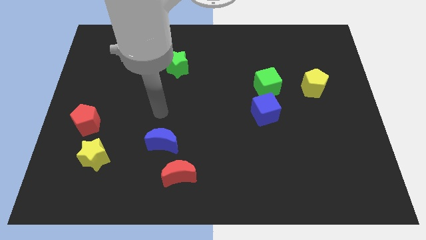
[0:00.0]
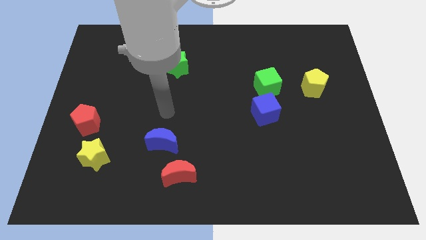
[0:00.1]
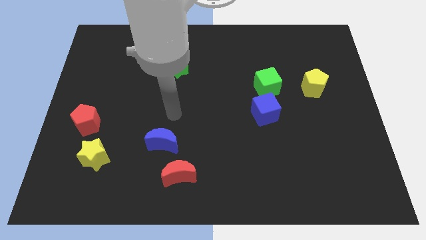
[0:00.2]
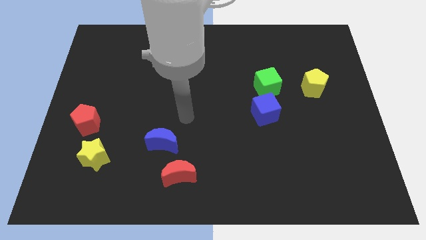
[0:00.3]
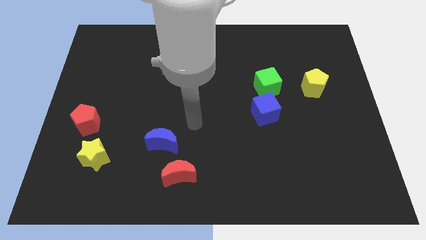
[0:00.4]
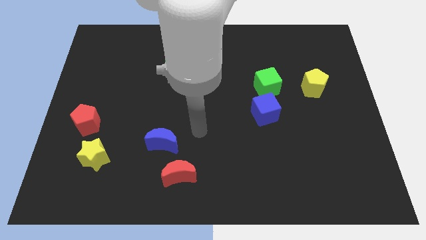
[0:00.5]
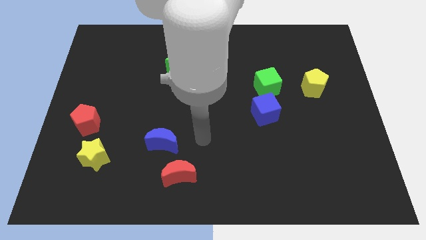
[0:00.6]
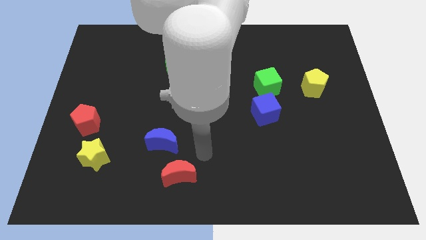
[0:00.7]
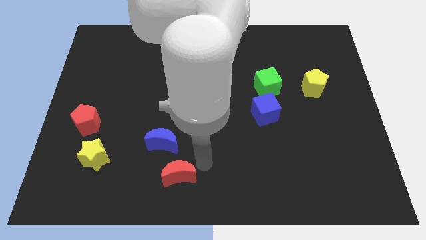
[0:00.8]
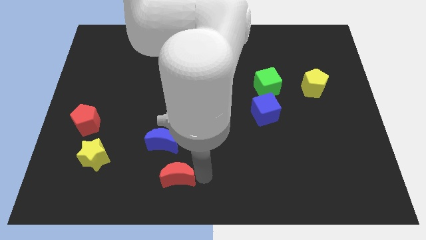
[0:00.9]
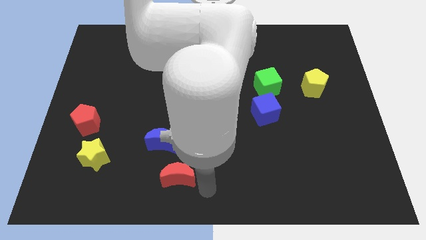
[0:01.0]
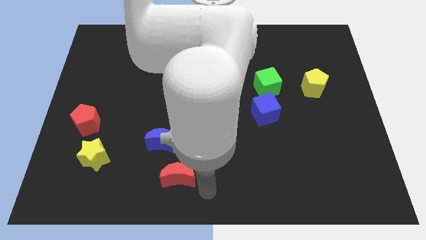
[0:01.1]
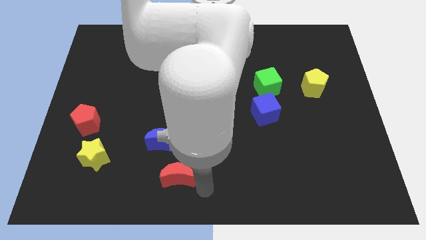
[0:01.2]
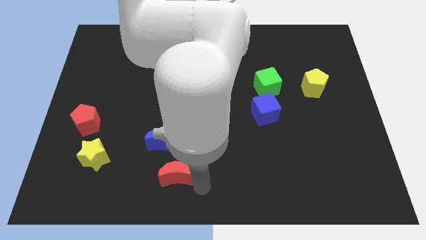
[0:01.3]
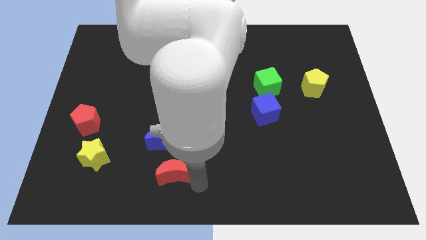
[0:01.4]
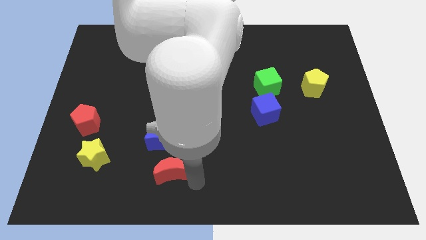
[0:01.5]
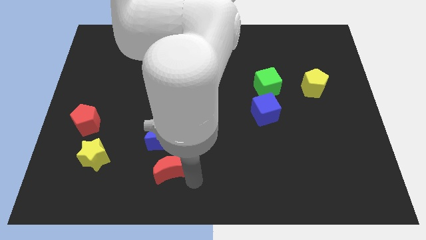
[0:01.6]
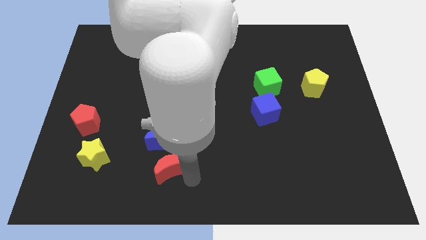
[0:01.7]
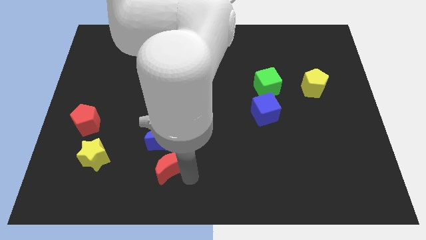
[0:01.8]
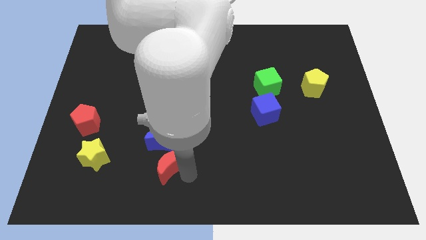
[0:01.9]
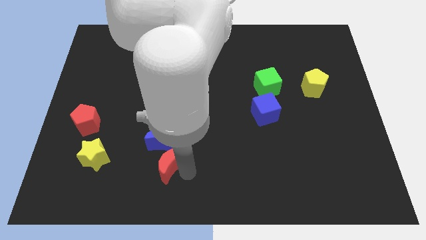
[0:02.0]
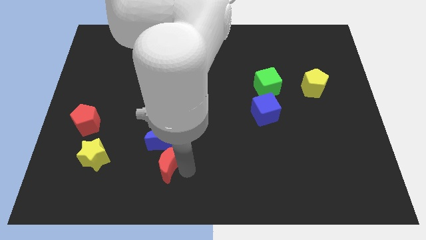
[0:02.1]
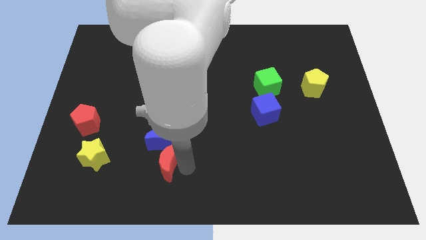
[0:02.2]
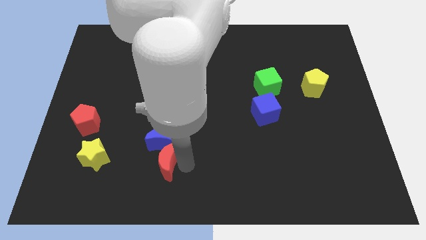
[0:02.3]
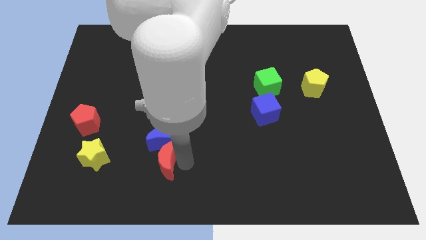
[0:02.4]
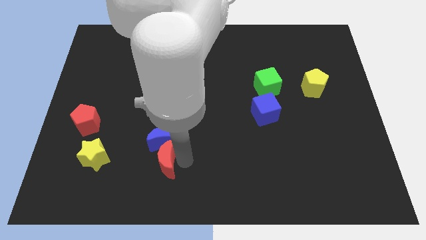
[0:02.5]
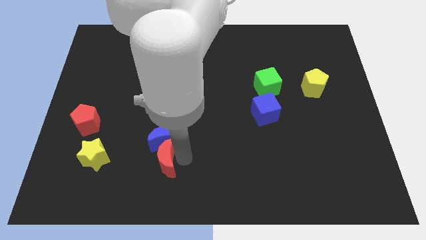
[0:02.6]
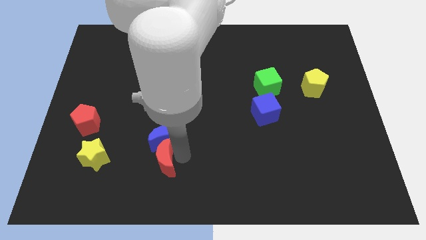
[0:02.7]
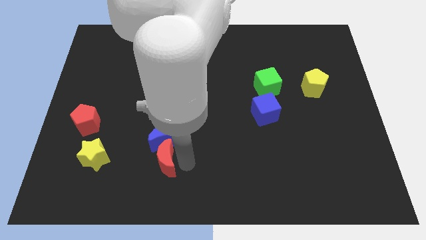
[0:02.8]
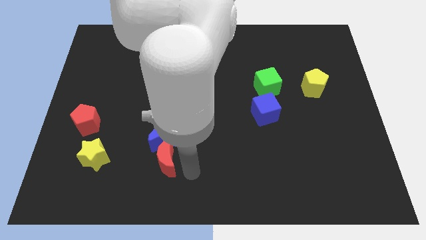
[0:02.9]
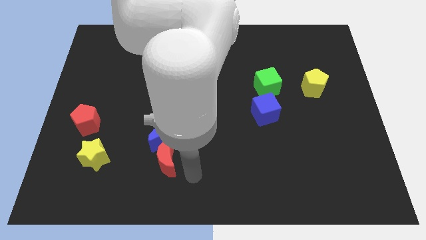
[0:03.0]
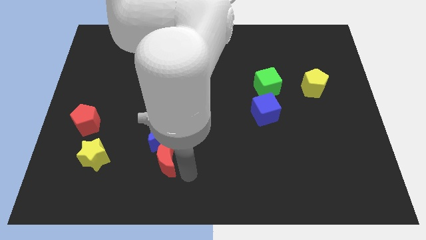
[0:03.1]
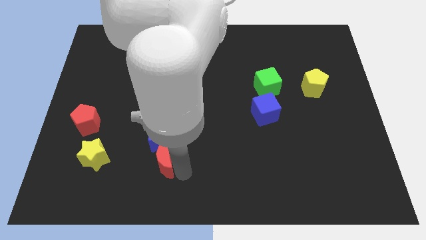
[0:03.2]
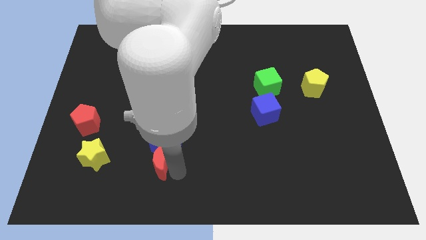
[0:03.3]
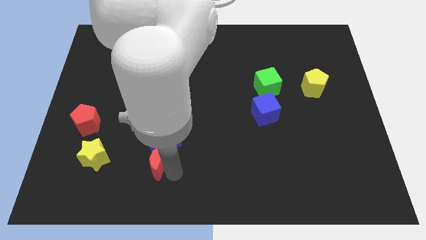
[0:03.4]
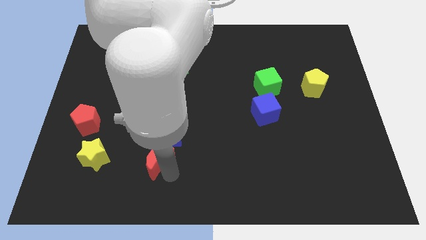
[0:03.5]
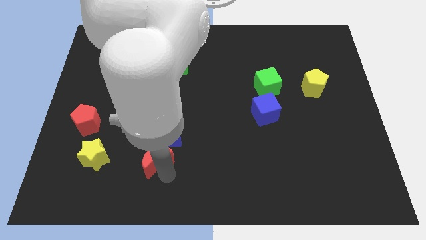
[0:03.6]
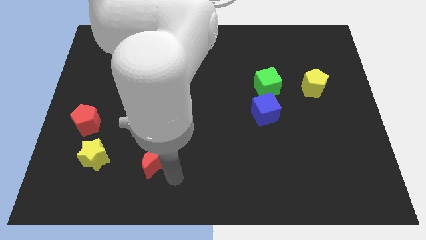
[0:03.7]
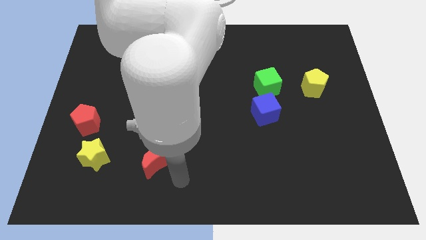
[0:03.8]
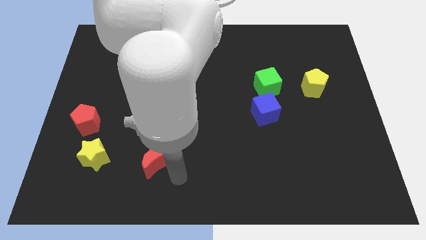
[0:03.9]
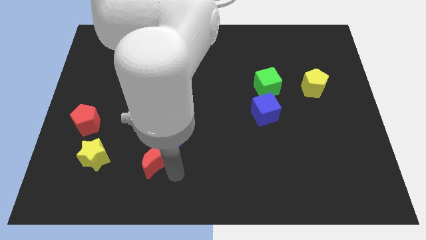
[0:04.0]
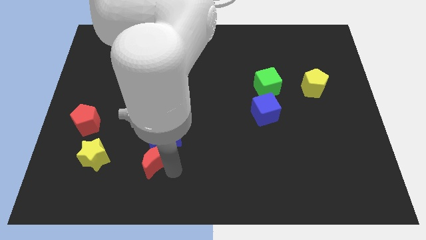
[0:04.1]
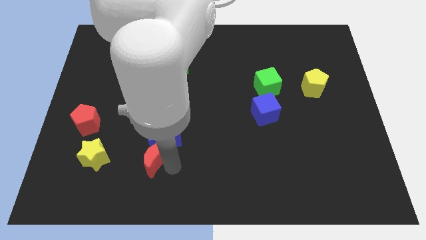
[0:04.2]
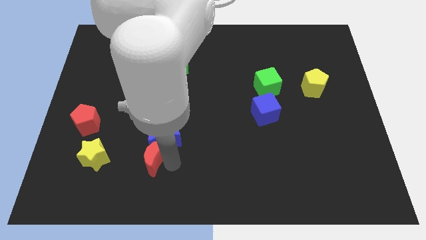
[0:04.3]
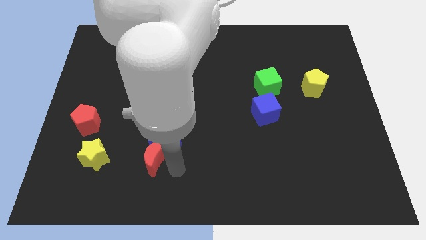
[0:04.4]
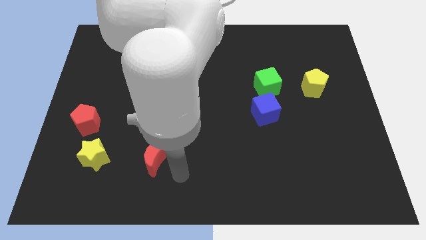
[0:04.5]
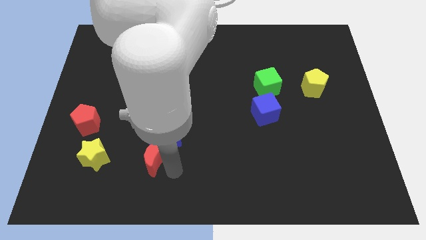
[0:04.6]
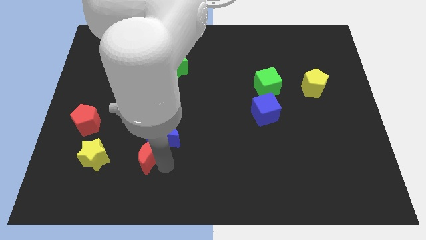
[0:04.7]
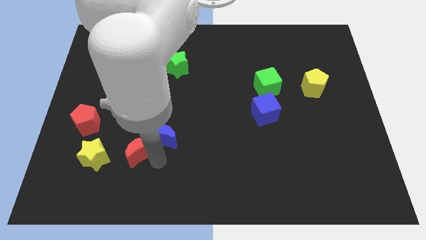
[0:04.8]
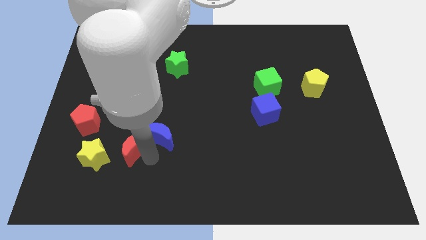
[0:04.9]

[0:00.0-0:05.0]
push the red moon diagonally up and to the right of the yellow star

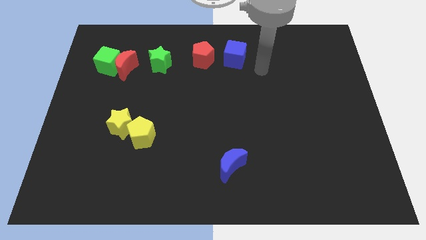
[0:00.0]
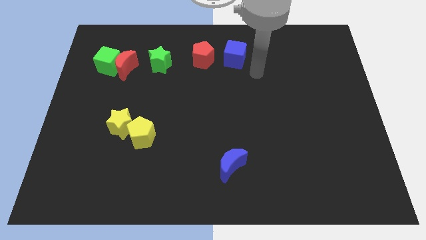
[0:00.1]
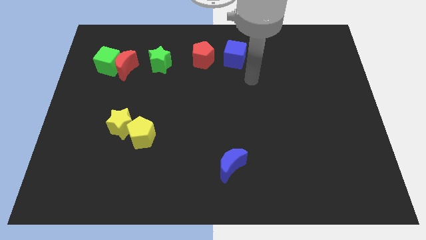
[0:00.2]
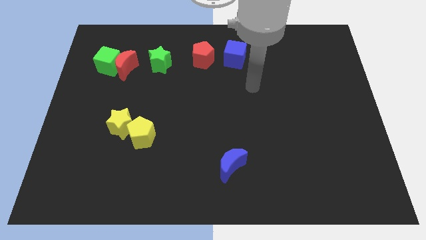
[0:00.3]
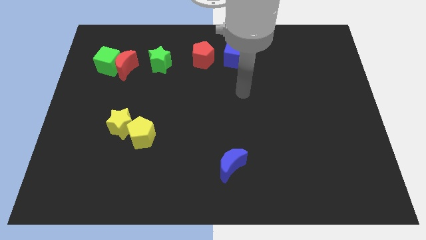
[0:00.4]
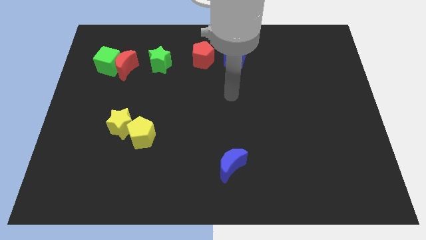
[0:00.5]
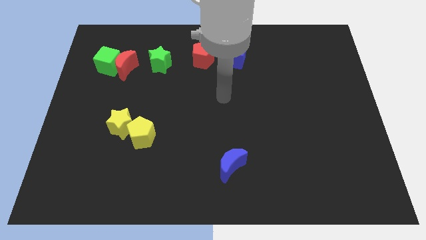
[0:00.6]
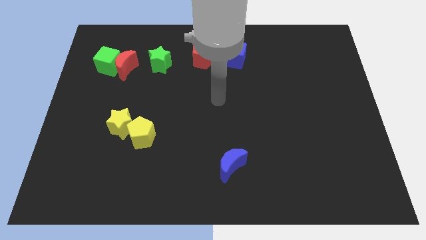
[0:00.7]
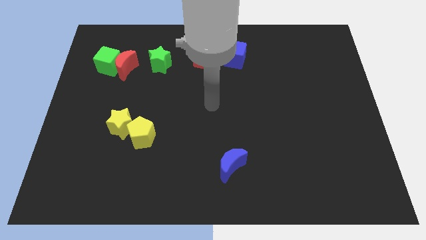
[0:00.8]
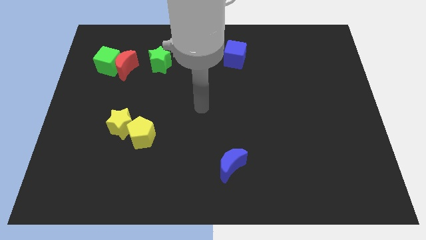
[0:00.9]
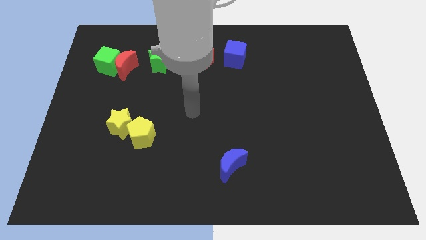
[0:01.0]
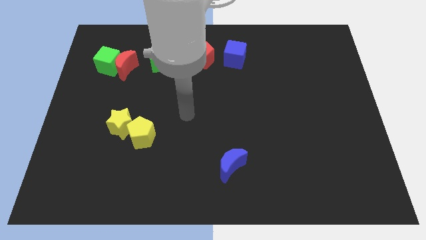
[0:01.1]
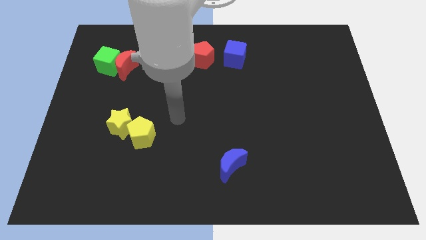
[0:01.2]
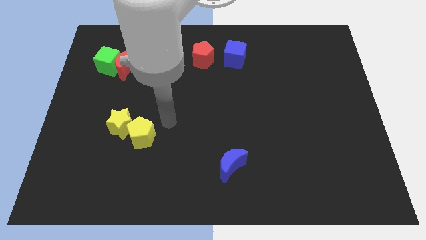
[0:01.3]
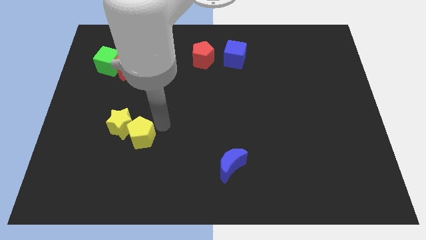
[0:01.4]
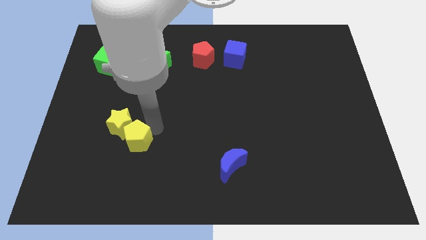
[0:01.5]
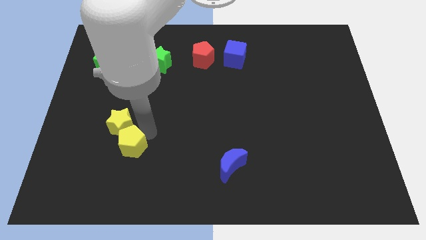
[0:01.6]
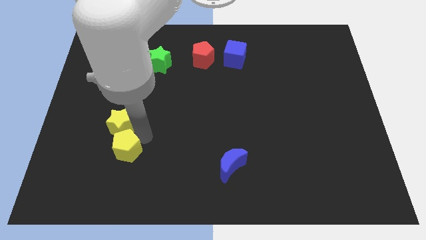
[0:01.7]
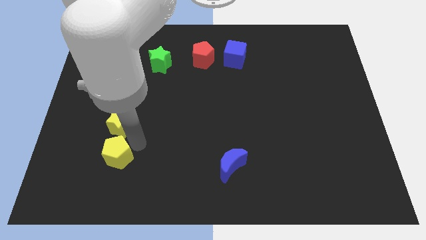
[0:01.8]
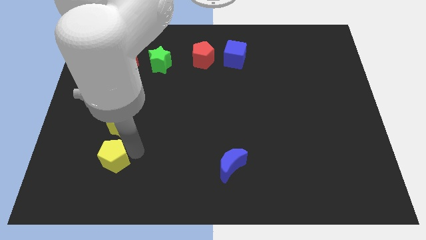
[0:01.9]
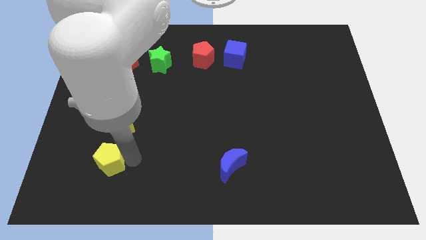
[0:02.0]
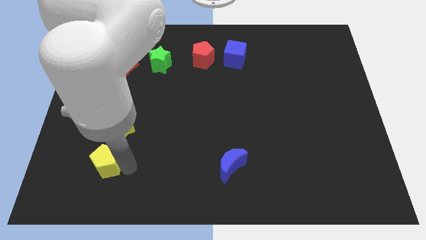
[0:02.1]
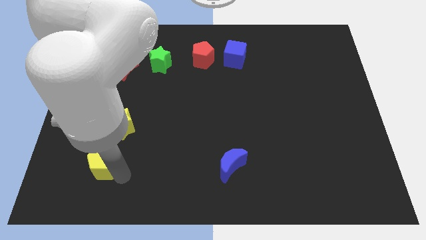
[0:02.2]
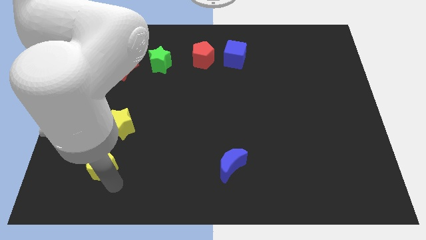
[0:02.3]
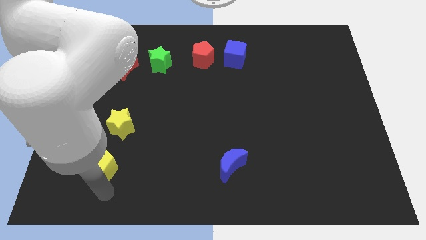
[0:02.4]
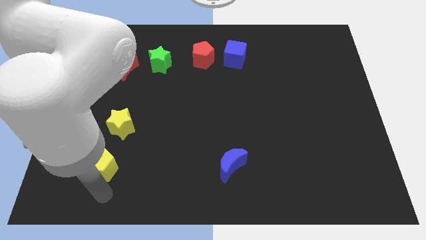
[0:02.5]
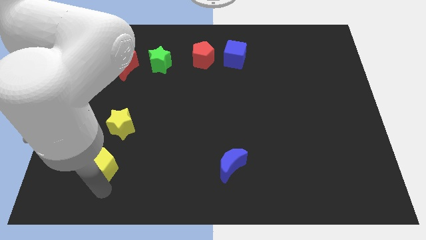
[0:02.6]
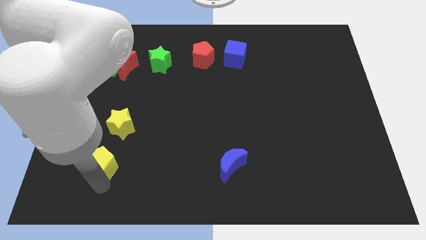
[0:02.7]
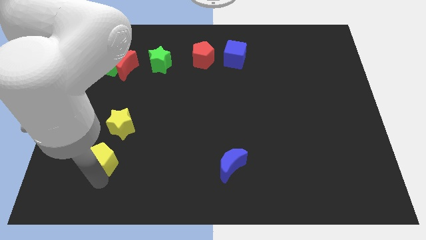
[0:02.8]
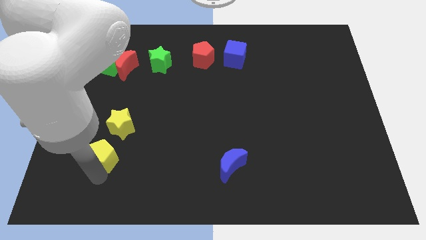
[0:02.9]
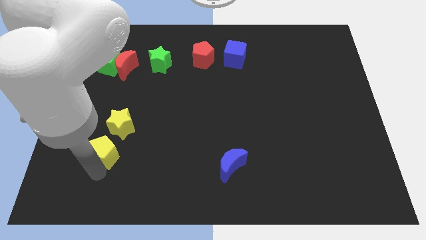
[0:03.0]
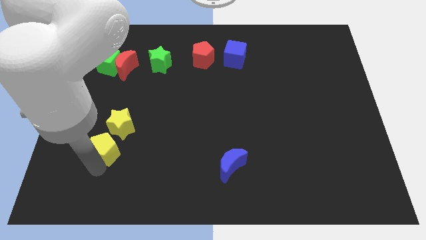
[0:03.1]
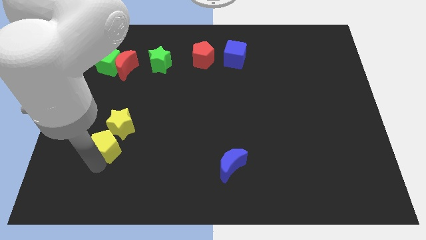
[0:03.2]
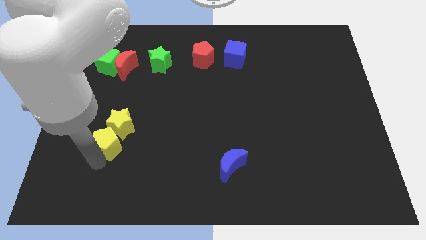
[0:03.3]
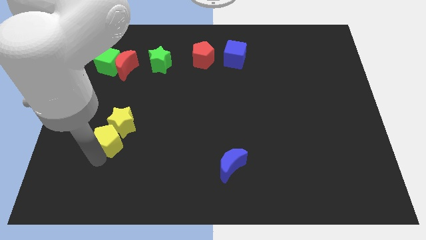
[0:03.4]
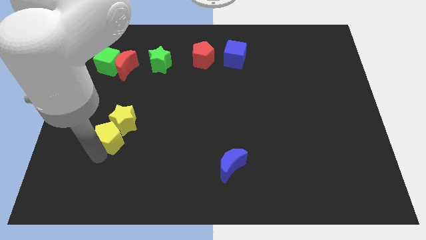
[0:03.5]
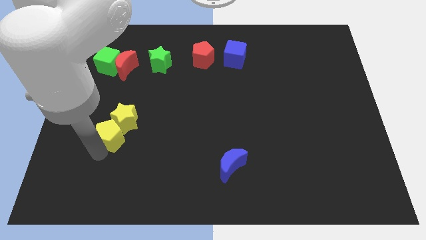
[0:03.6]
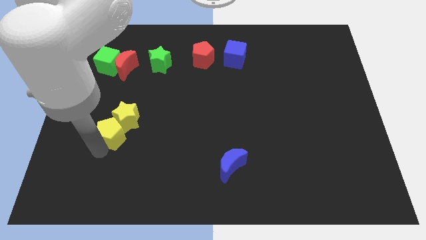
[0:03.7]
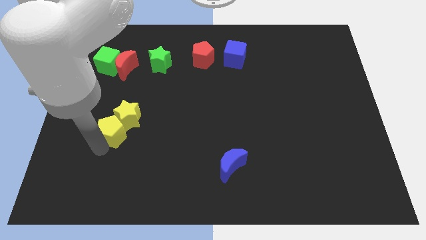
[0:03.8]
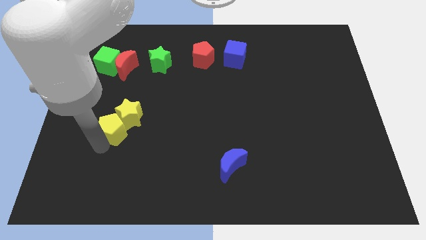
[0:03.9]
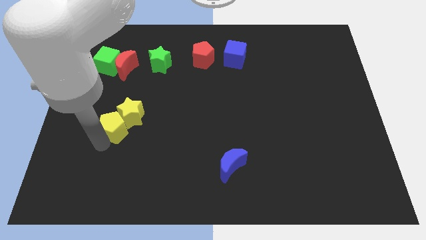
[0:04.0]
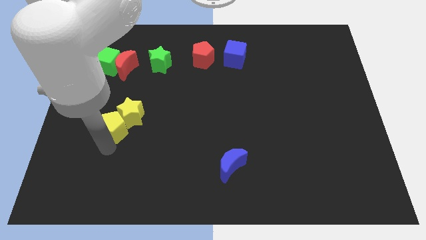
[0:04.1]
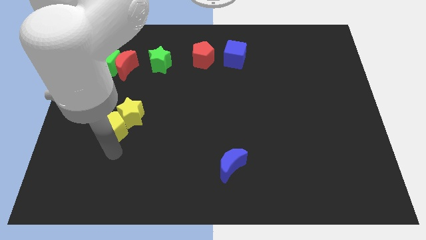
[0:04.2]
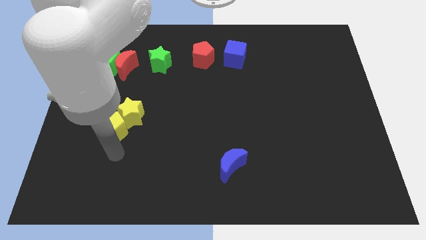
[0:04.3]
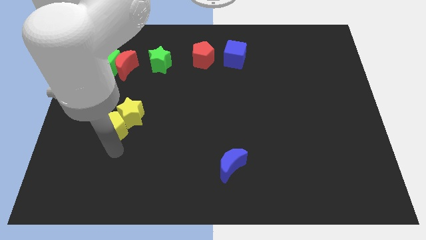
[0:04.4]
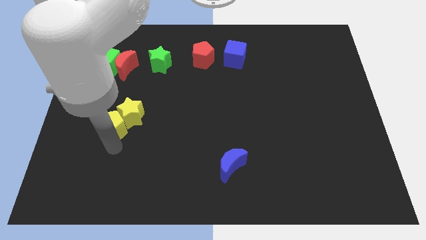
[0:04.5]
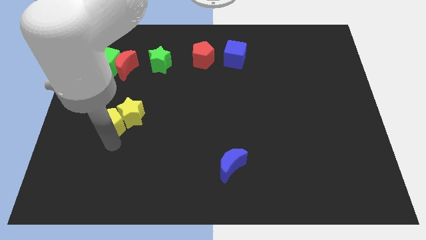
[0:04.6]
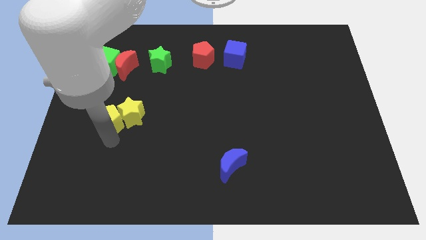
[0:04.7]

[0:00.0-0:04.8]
move the yellow pentagon to the top left side of the yellow star
